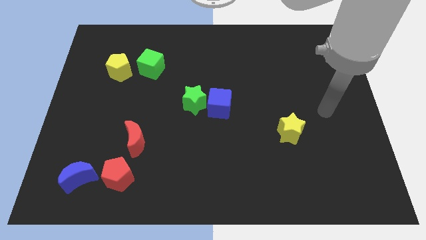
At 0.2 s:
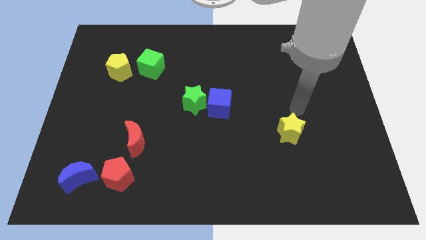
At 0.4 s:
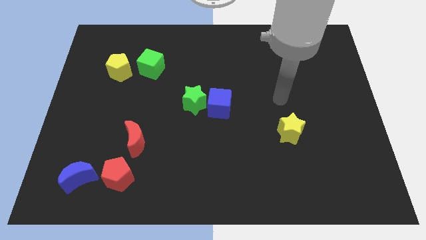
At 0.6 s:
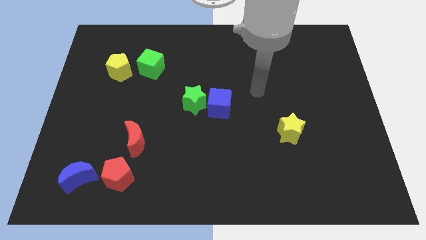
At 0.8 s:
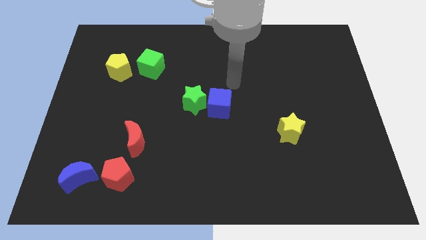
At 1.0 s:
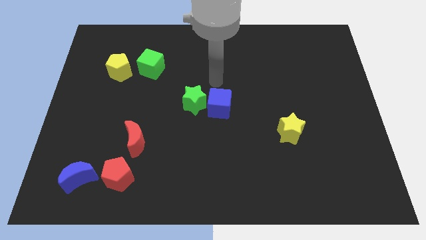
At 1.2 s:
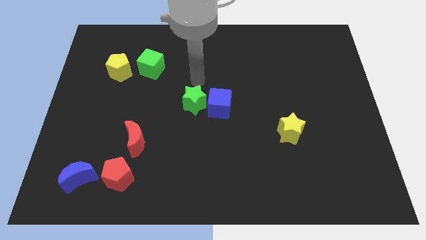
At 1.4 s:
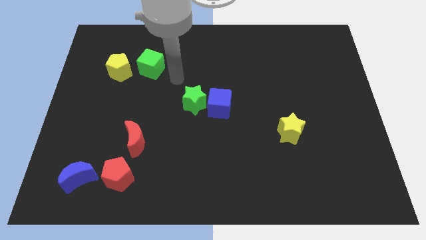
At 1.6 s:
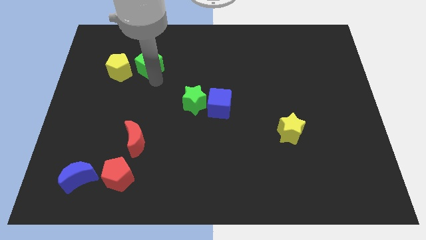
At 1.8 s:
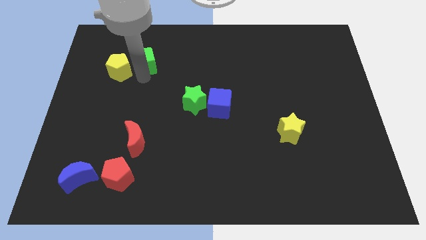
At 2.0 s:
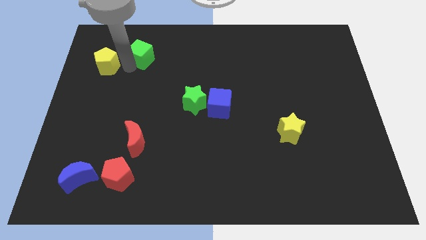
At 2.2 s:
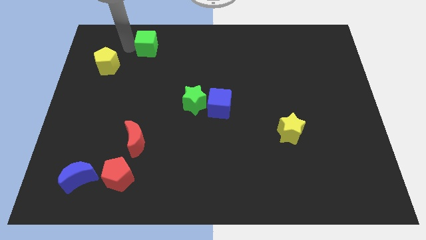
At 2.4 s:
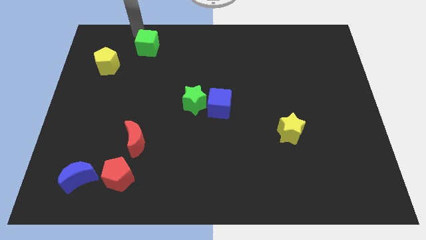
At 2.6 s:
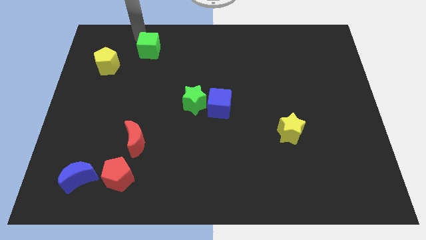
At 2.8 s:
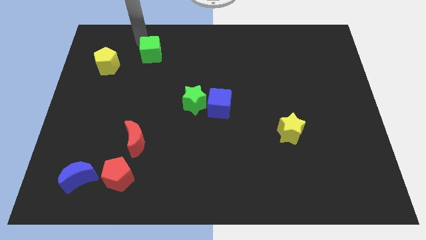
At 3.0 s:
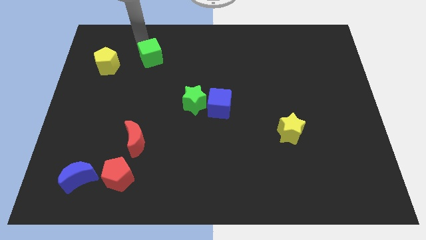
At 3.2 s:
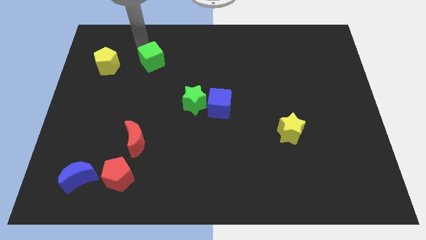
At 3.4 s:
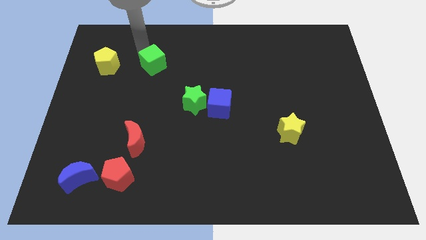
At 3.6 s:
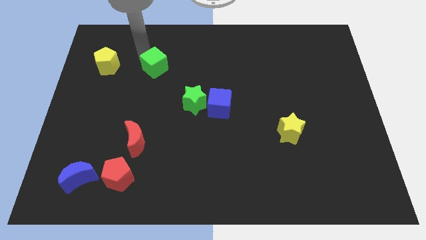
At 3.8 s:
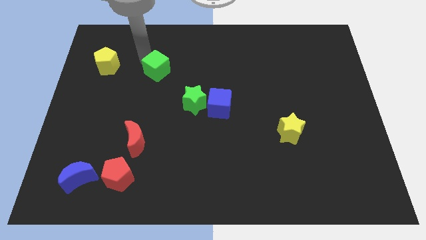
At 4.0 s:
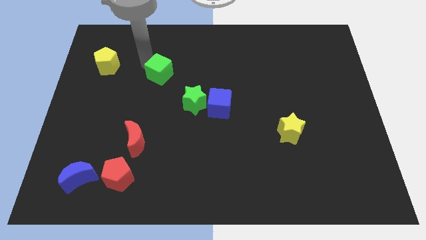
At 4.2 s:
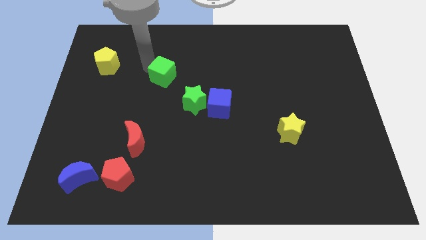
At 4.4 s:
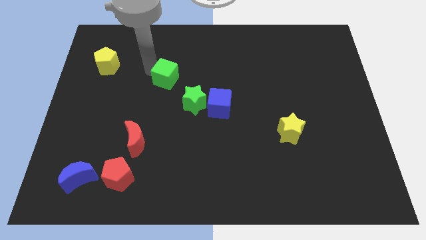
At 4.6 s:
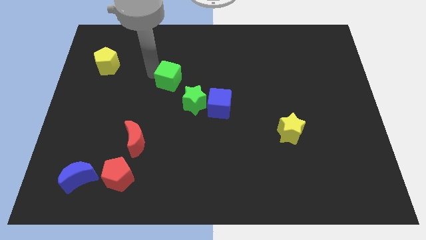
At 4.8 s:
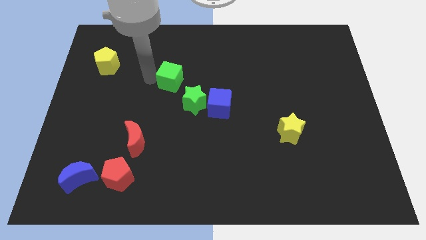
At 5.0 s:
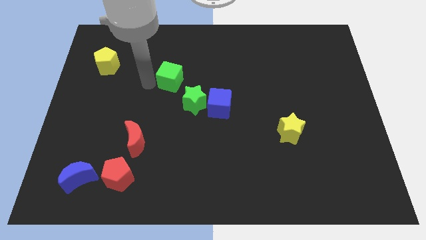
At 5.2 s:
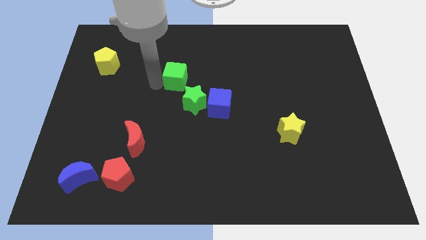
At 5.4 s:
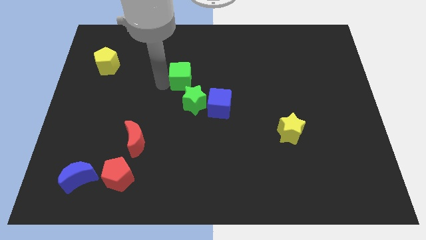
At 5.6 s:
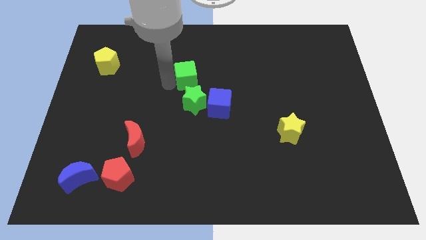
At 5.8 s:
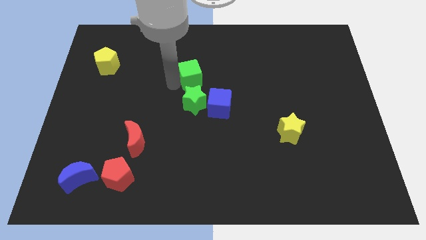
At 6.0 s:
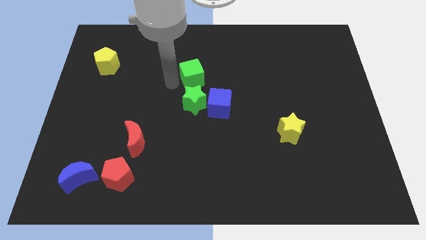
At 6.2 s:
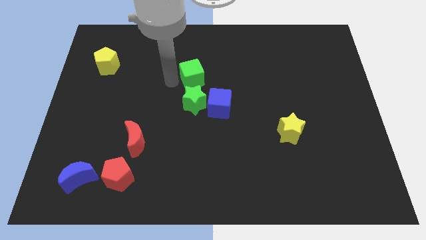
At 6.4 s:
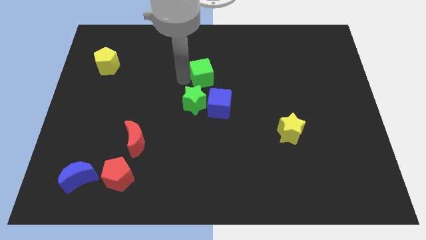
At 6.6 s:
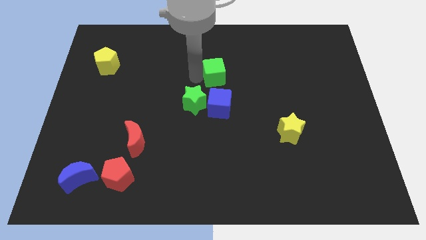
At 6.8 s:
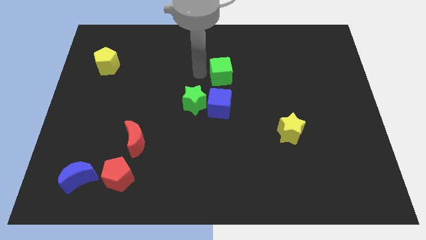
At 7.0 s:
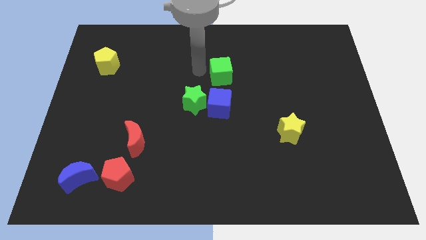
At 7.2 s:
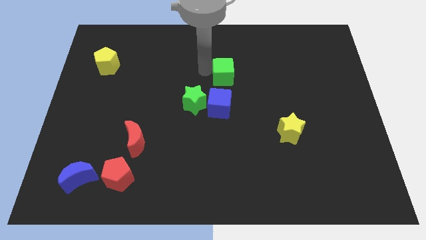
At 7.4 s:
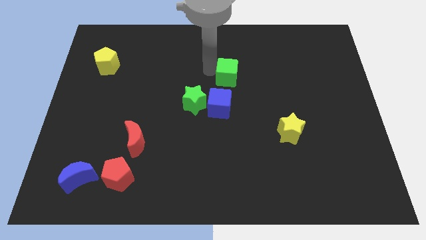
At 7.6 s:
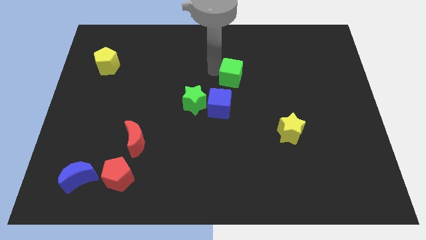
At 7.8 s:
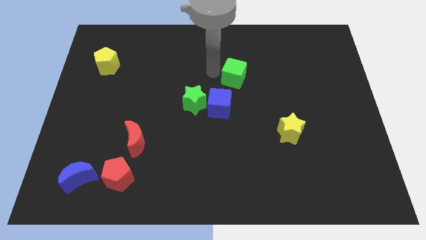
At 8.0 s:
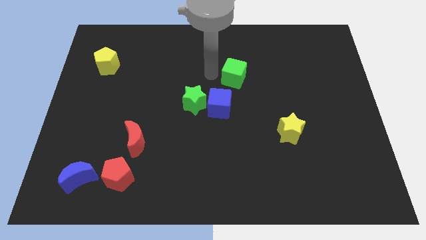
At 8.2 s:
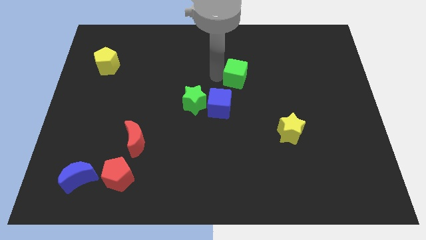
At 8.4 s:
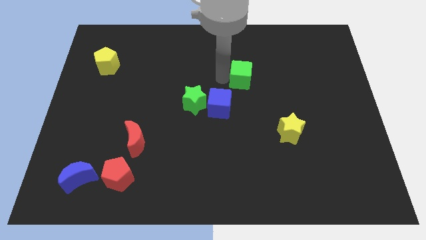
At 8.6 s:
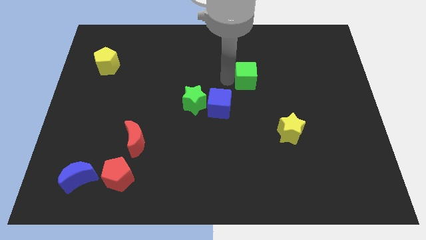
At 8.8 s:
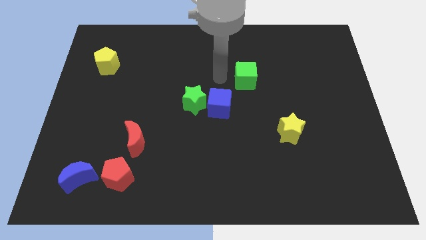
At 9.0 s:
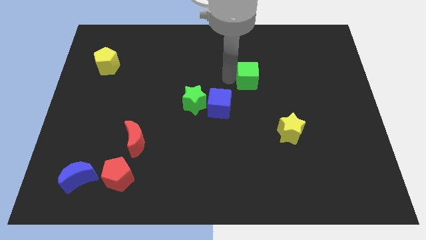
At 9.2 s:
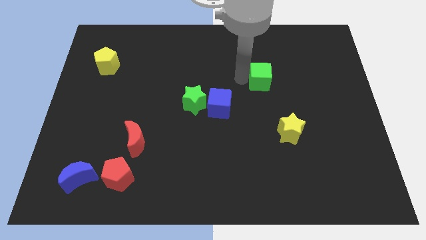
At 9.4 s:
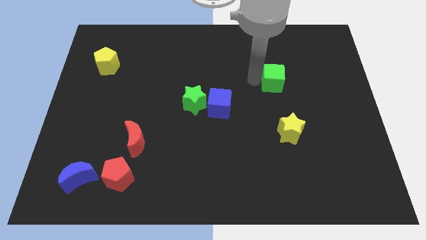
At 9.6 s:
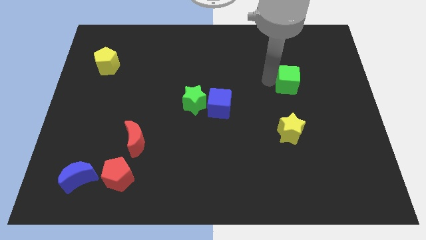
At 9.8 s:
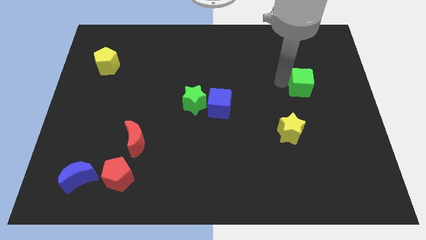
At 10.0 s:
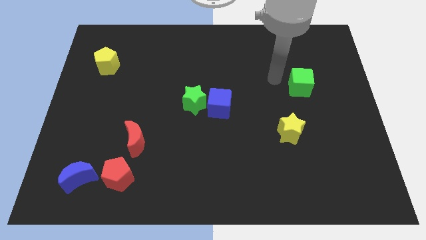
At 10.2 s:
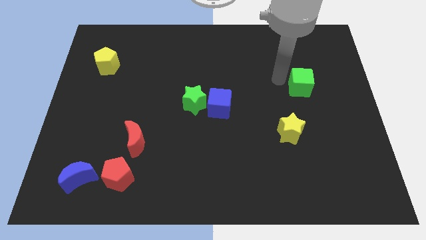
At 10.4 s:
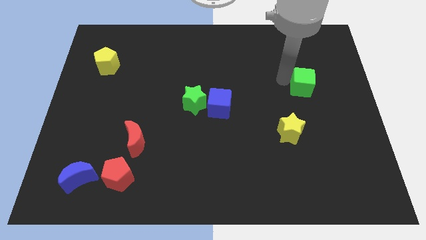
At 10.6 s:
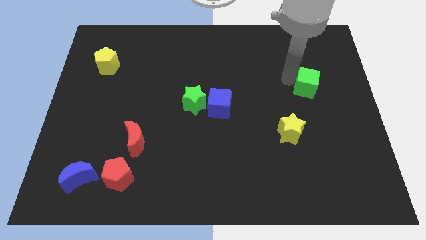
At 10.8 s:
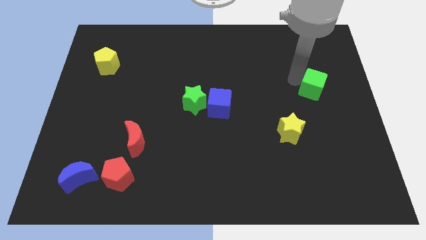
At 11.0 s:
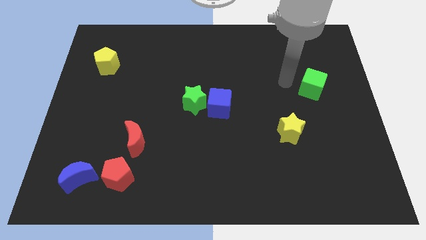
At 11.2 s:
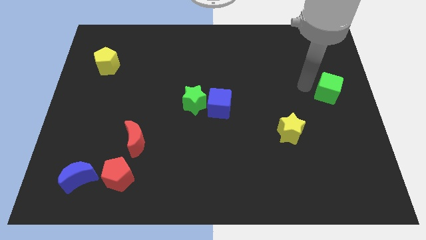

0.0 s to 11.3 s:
slide the green cube to the right side

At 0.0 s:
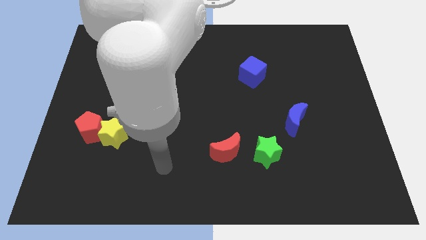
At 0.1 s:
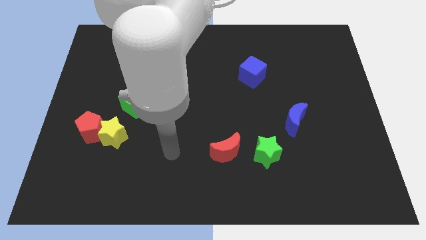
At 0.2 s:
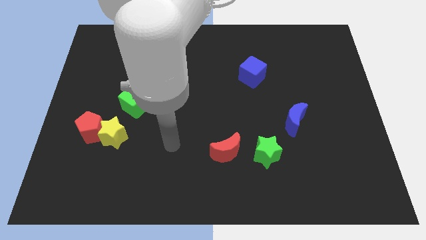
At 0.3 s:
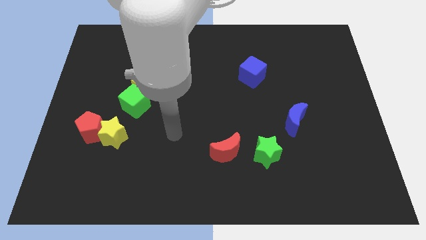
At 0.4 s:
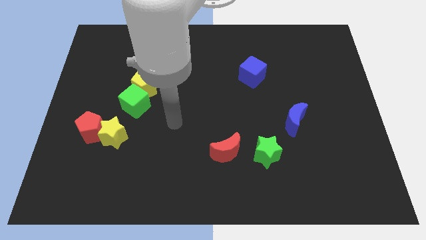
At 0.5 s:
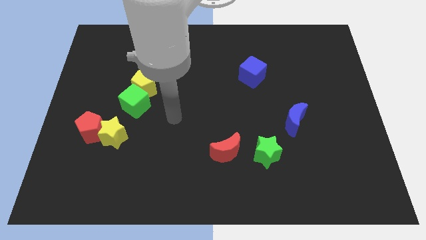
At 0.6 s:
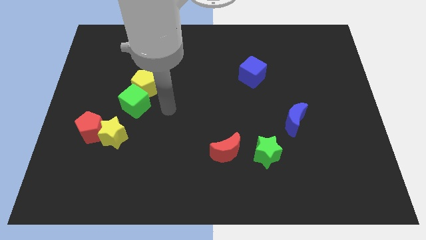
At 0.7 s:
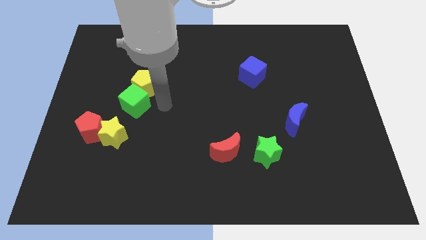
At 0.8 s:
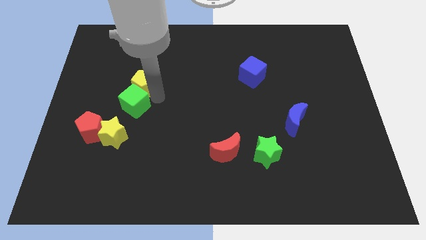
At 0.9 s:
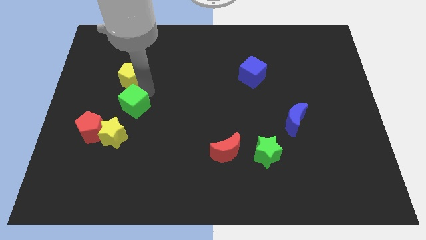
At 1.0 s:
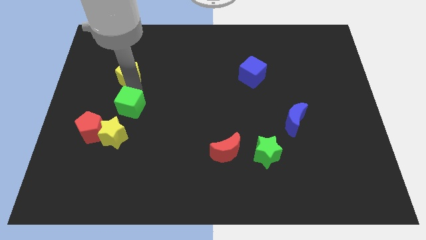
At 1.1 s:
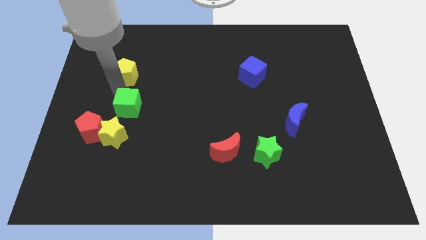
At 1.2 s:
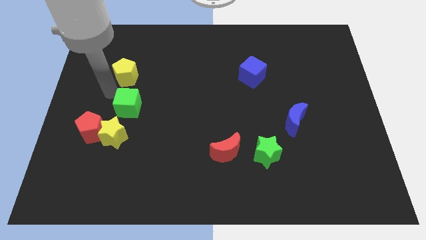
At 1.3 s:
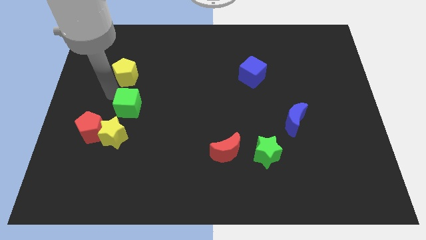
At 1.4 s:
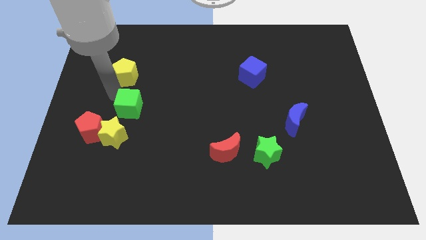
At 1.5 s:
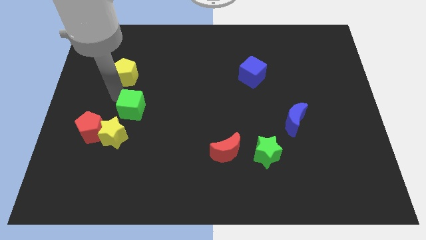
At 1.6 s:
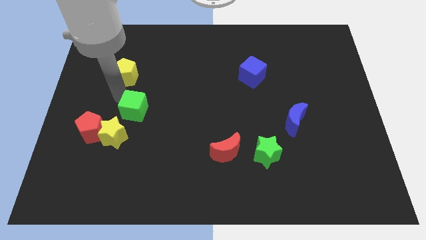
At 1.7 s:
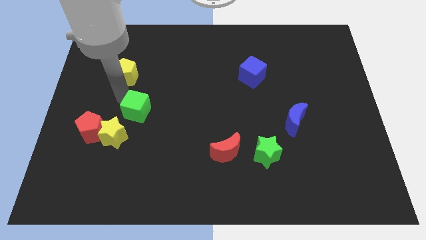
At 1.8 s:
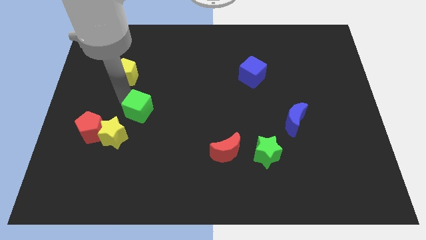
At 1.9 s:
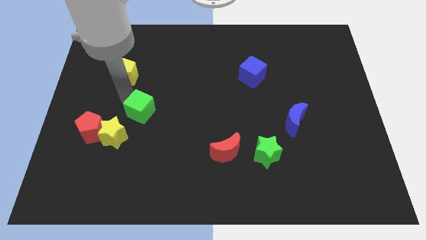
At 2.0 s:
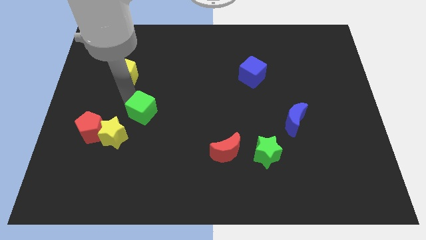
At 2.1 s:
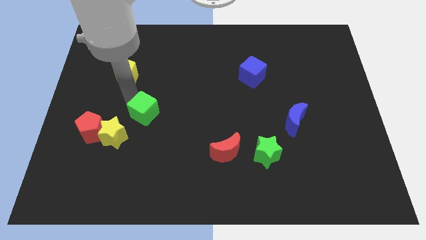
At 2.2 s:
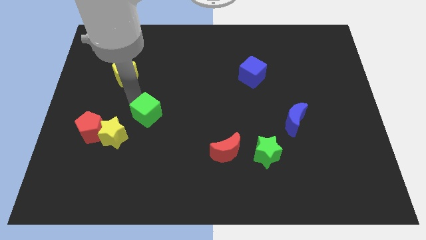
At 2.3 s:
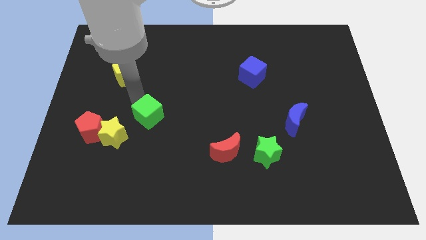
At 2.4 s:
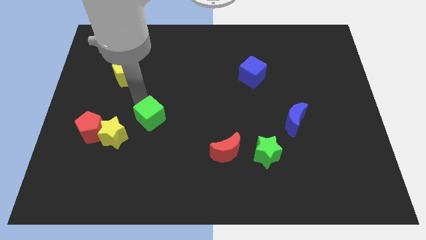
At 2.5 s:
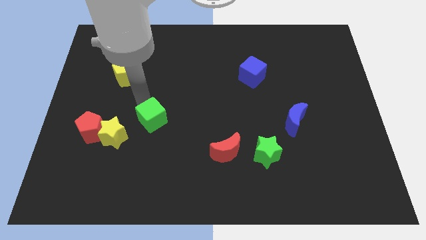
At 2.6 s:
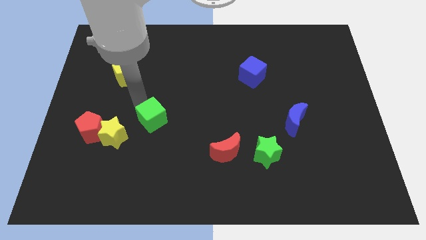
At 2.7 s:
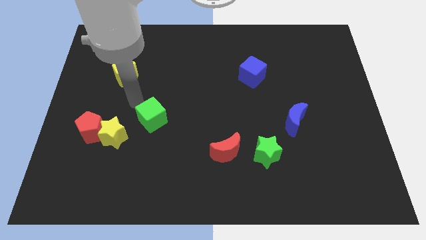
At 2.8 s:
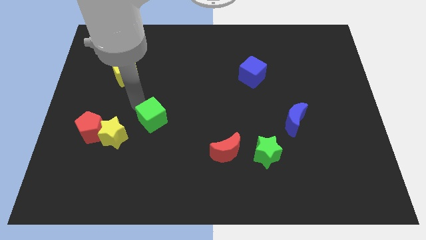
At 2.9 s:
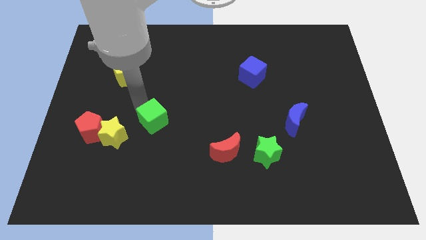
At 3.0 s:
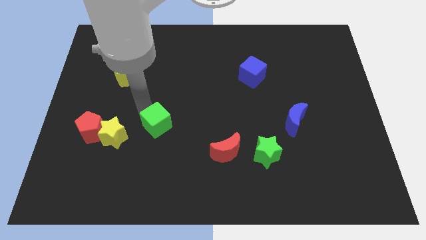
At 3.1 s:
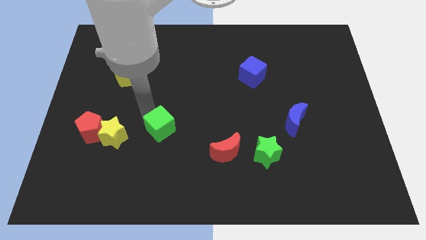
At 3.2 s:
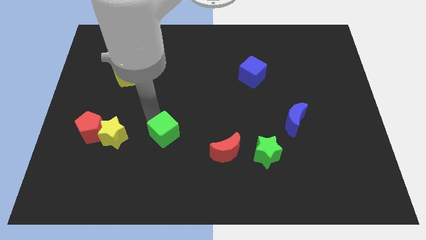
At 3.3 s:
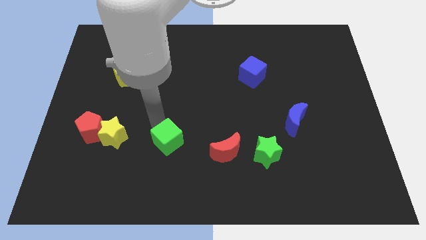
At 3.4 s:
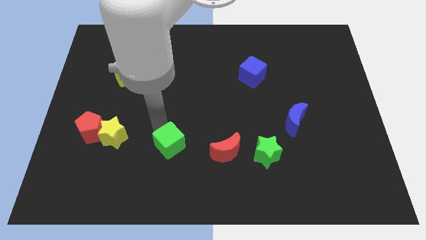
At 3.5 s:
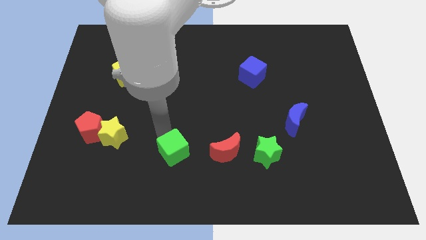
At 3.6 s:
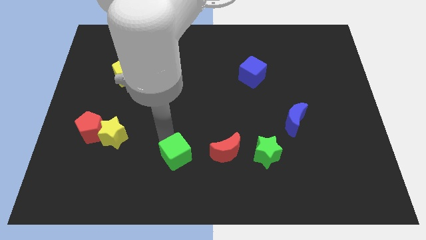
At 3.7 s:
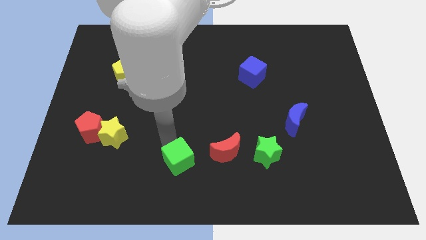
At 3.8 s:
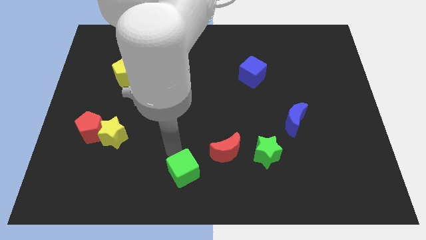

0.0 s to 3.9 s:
push the green cube to the bottom
